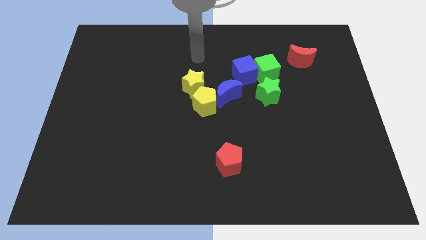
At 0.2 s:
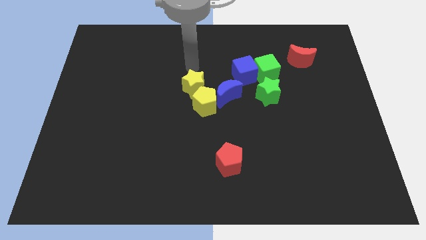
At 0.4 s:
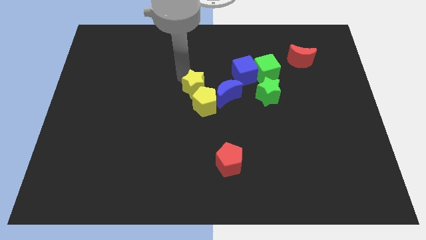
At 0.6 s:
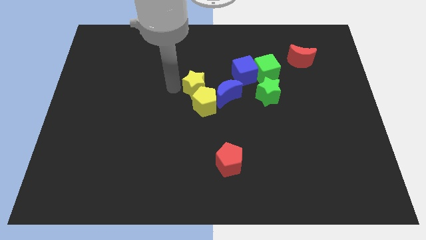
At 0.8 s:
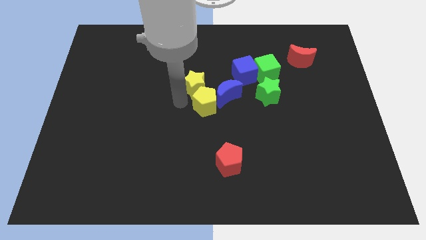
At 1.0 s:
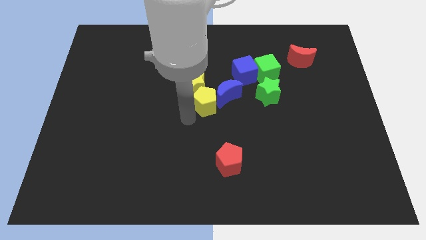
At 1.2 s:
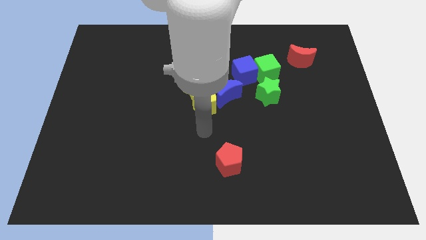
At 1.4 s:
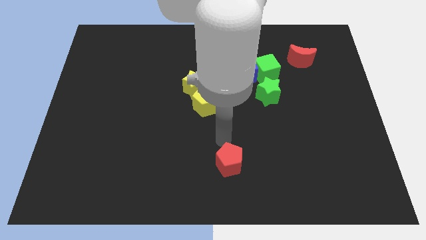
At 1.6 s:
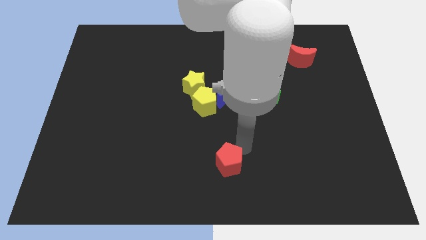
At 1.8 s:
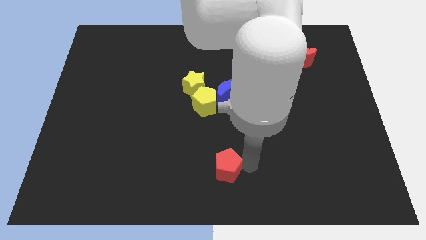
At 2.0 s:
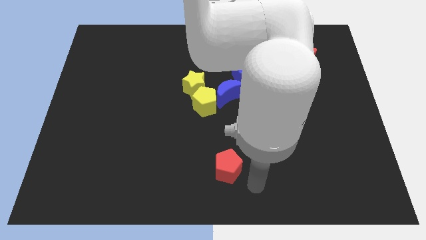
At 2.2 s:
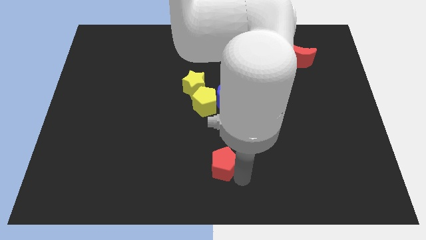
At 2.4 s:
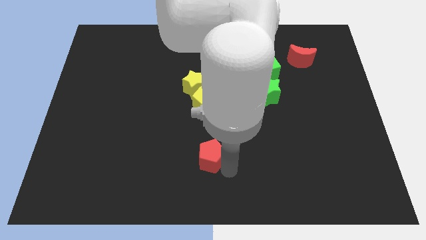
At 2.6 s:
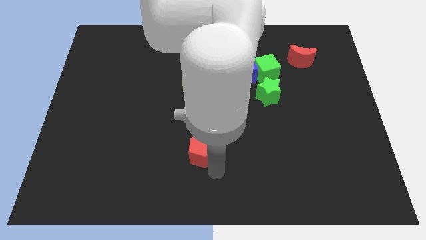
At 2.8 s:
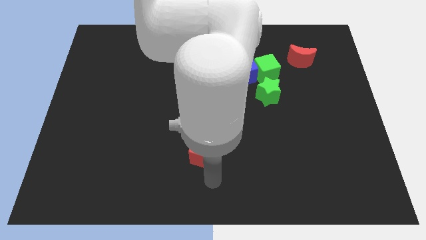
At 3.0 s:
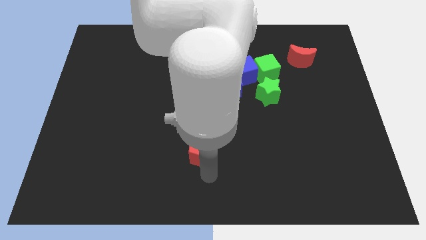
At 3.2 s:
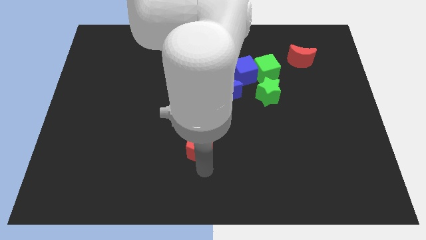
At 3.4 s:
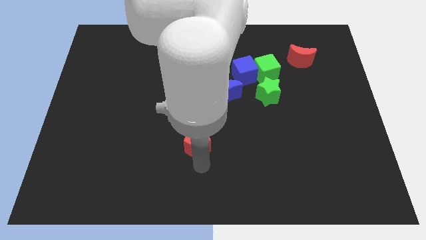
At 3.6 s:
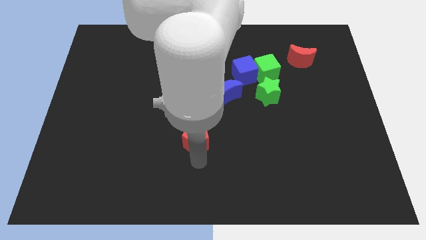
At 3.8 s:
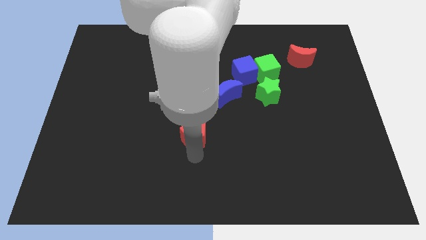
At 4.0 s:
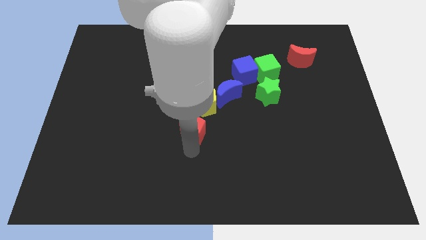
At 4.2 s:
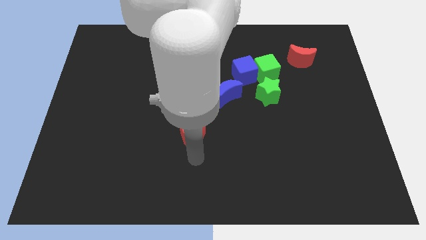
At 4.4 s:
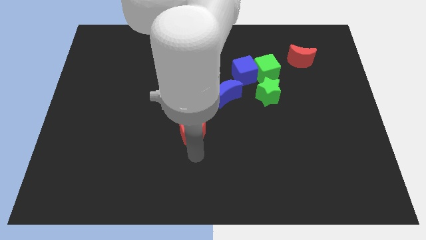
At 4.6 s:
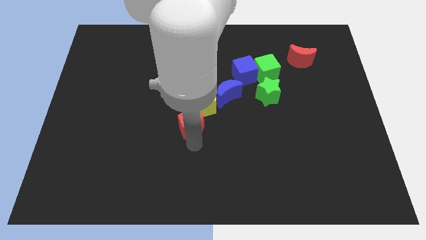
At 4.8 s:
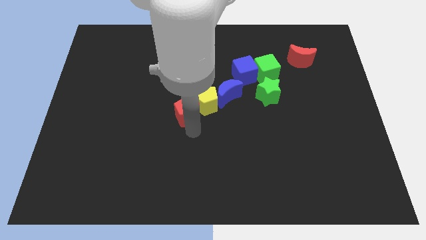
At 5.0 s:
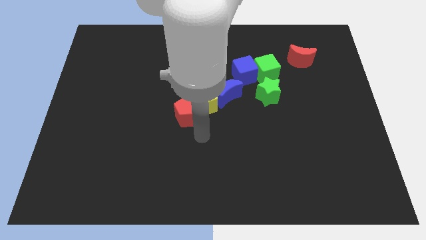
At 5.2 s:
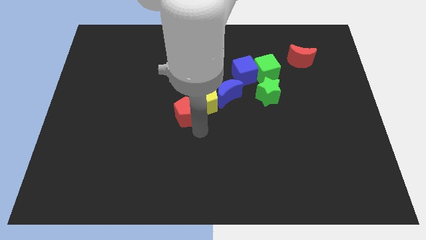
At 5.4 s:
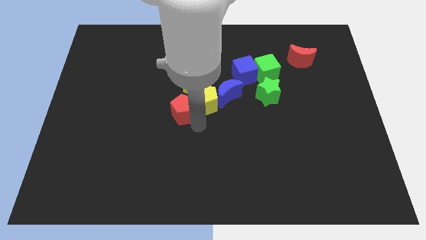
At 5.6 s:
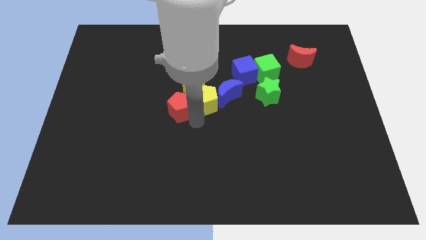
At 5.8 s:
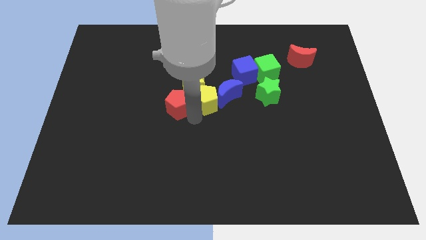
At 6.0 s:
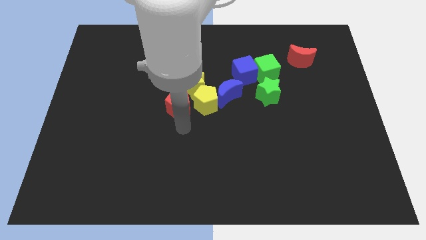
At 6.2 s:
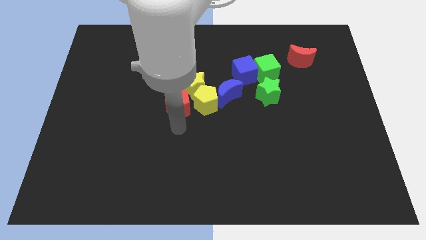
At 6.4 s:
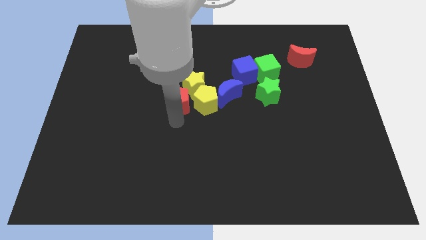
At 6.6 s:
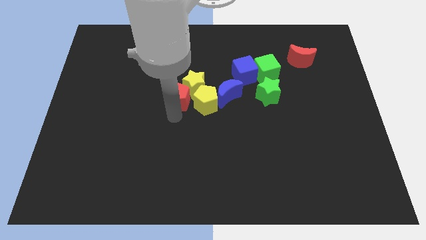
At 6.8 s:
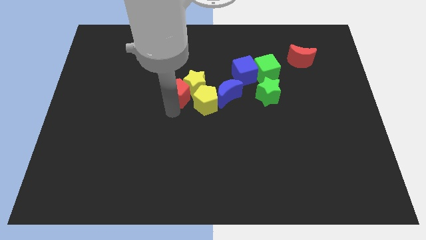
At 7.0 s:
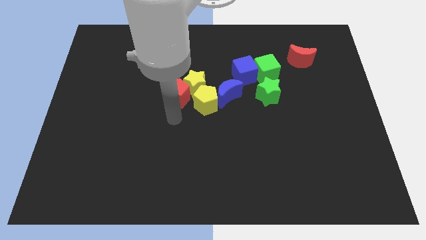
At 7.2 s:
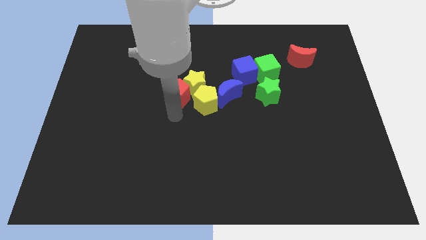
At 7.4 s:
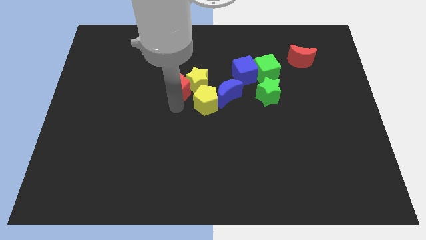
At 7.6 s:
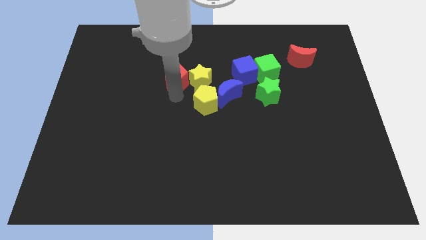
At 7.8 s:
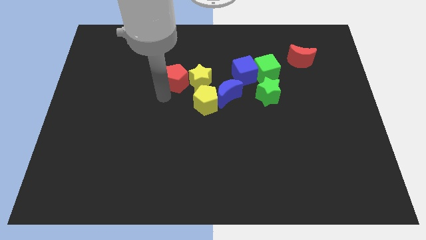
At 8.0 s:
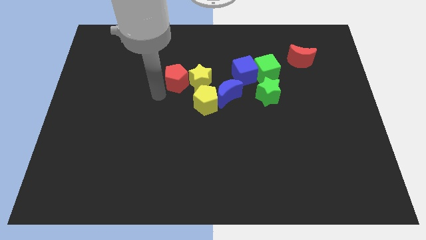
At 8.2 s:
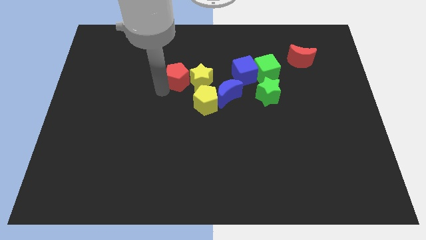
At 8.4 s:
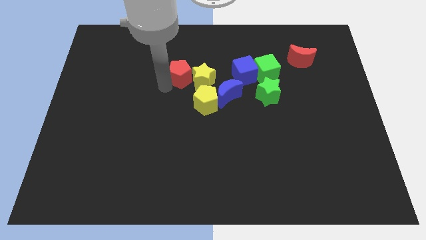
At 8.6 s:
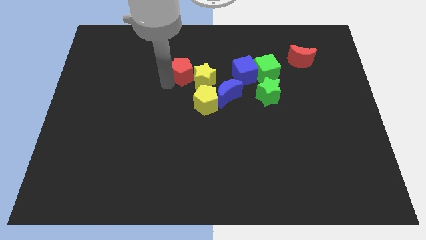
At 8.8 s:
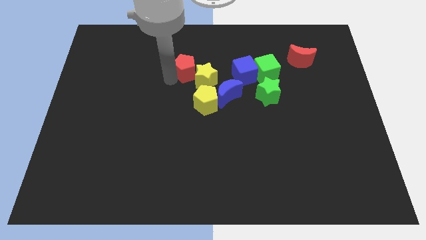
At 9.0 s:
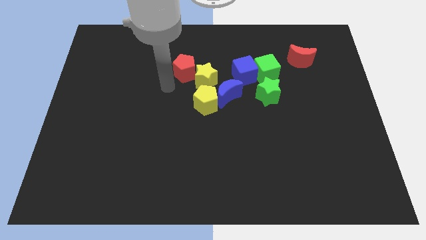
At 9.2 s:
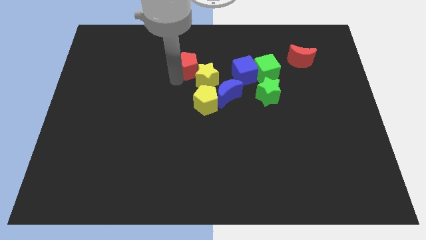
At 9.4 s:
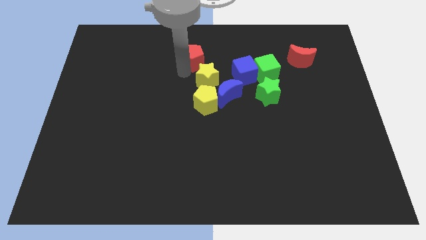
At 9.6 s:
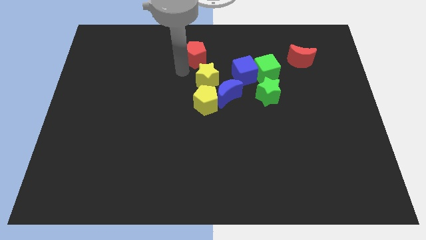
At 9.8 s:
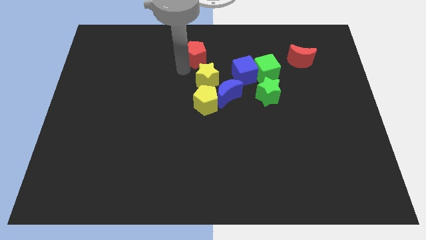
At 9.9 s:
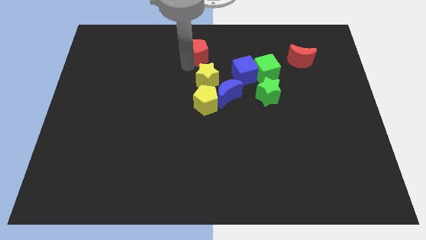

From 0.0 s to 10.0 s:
push the red pentagon to the top

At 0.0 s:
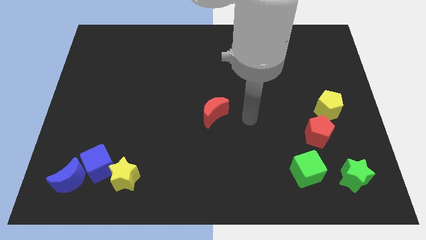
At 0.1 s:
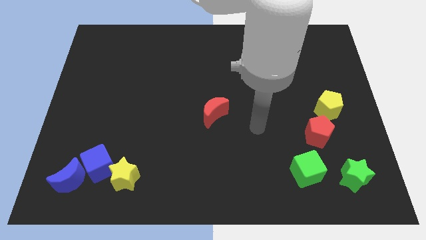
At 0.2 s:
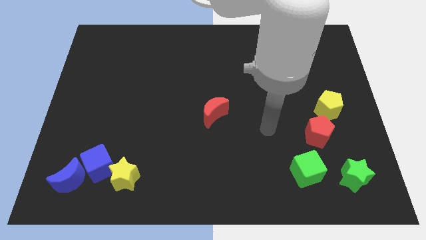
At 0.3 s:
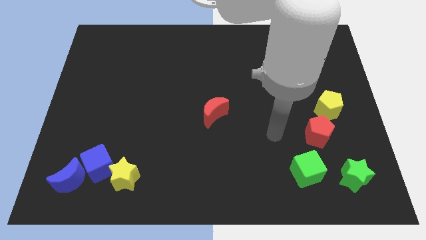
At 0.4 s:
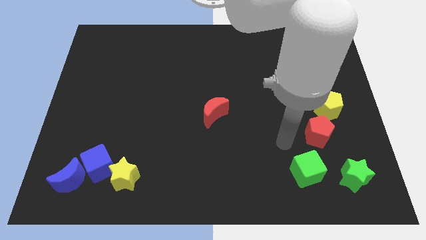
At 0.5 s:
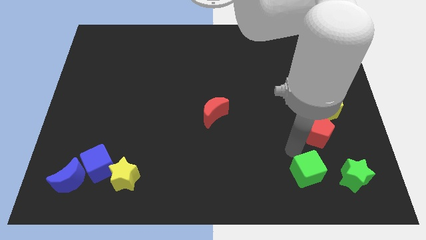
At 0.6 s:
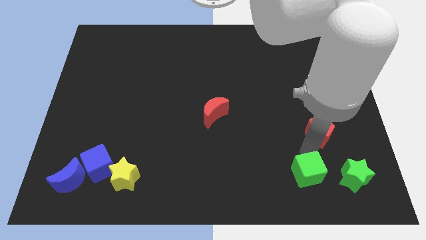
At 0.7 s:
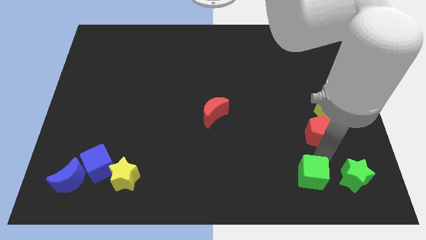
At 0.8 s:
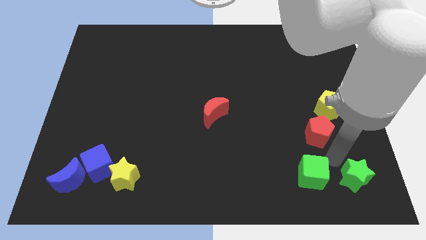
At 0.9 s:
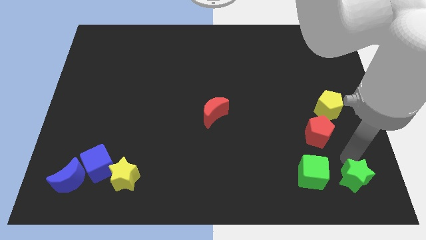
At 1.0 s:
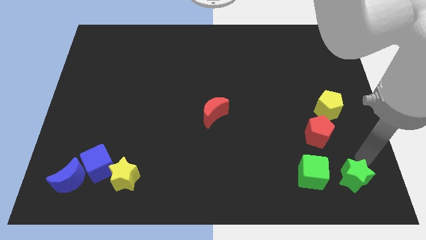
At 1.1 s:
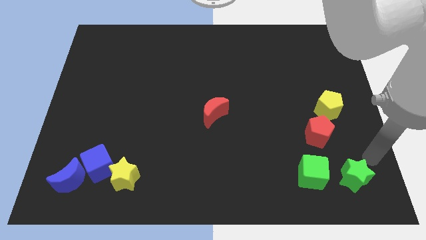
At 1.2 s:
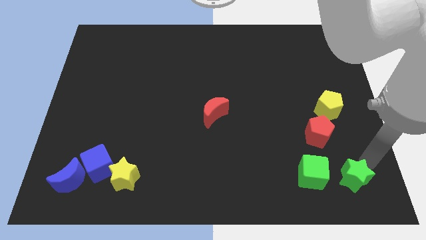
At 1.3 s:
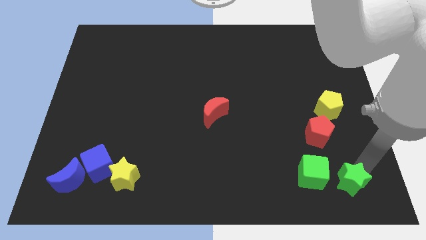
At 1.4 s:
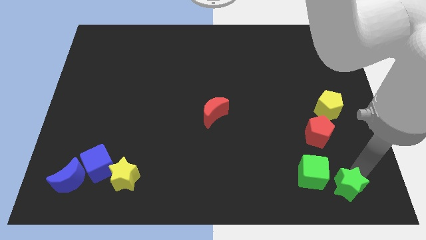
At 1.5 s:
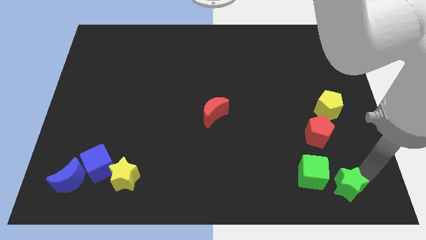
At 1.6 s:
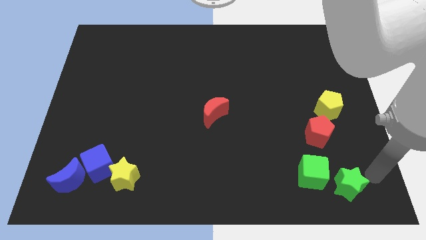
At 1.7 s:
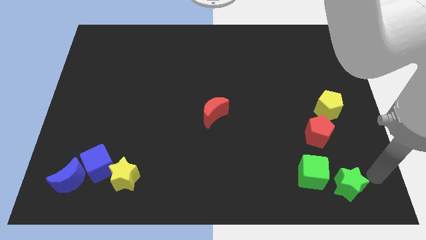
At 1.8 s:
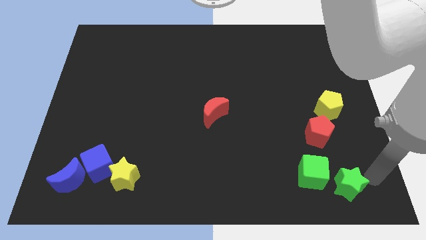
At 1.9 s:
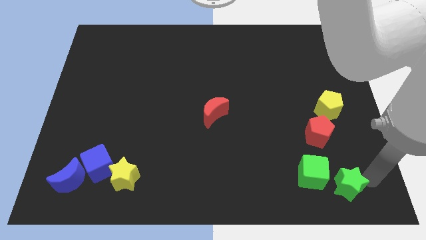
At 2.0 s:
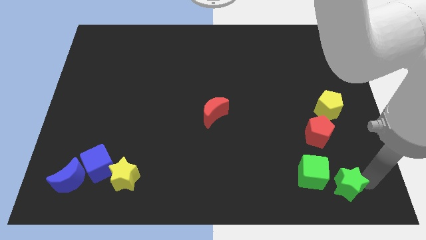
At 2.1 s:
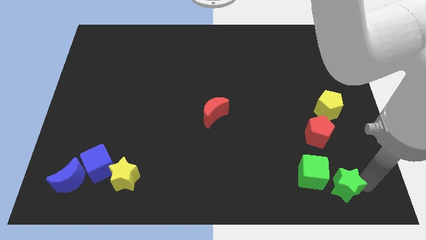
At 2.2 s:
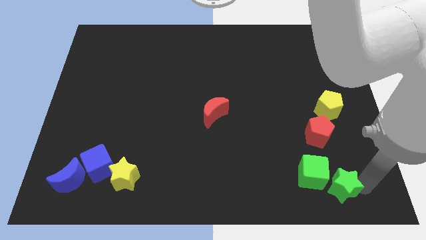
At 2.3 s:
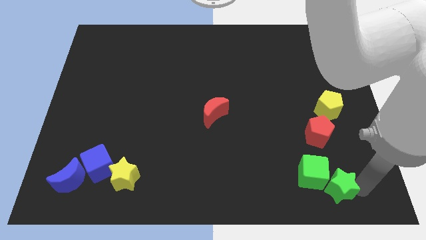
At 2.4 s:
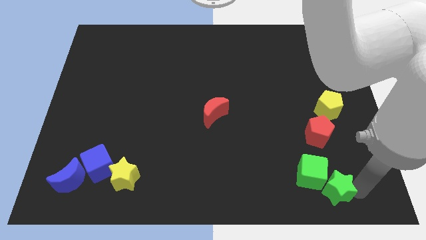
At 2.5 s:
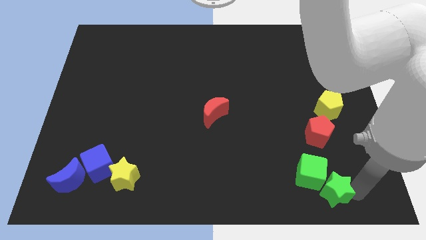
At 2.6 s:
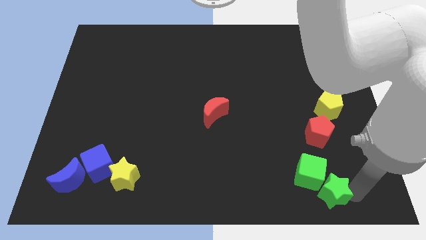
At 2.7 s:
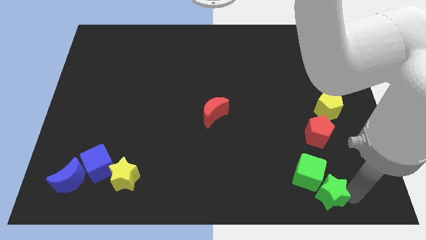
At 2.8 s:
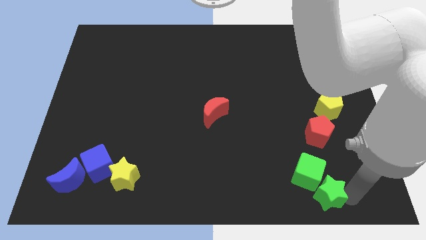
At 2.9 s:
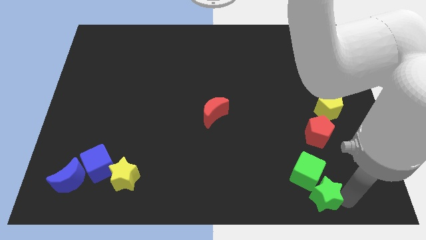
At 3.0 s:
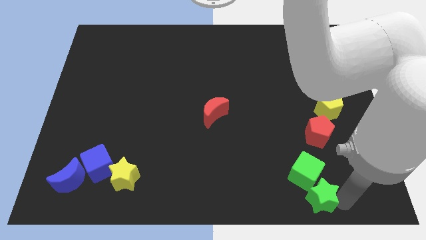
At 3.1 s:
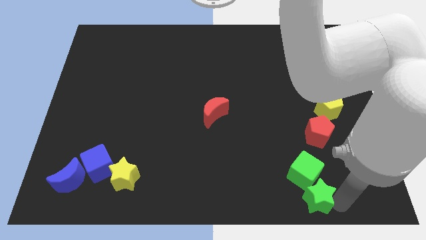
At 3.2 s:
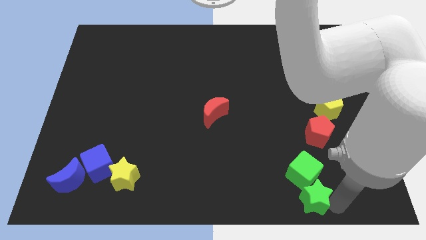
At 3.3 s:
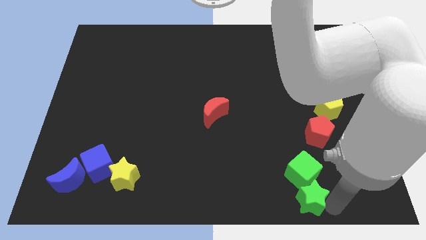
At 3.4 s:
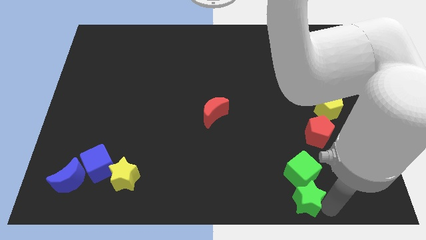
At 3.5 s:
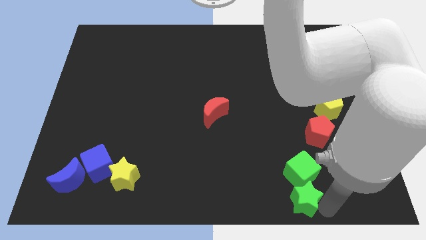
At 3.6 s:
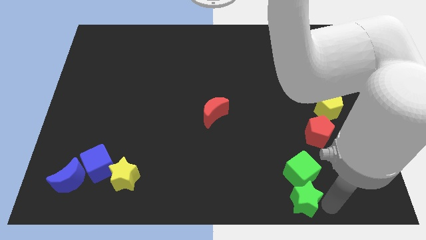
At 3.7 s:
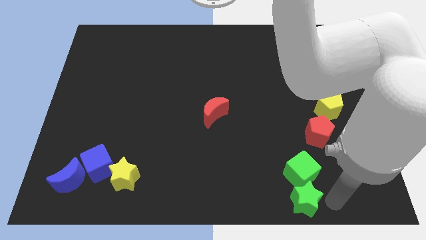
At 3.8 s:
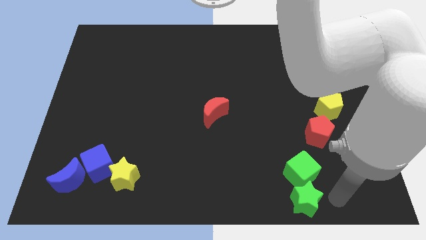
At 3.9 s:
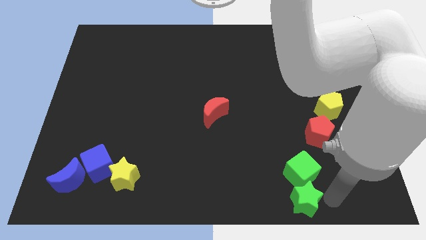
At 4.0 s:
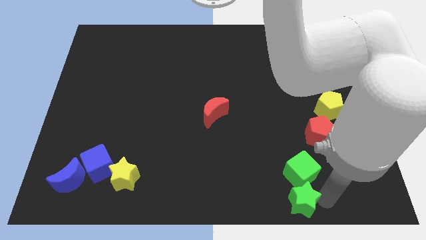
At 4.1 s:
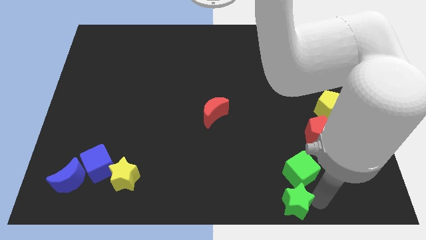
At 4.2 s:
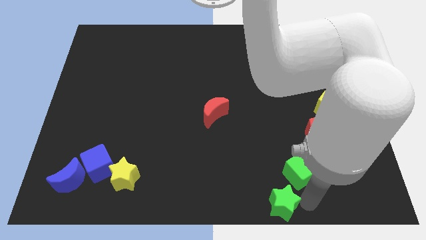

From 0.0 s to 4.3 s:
push the green star to the bottom side
